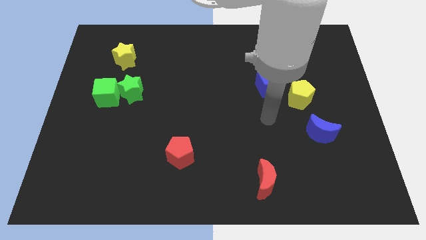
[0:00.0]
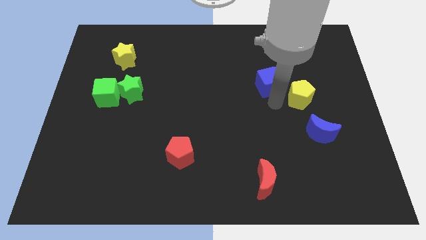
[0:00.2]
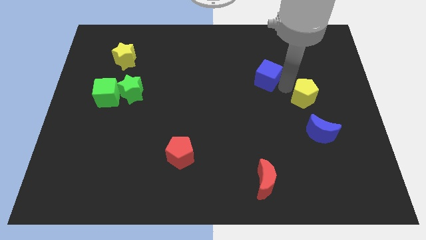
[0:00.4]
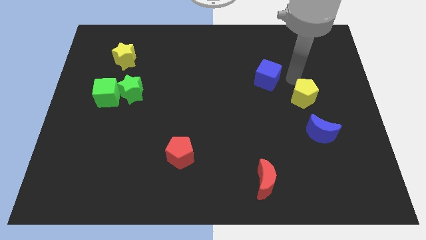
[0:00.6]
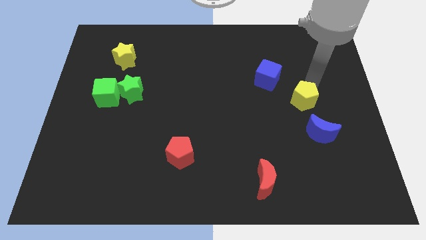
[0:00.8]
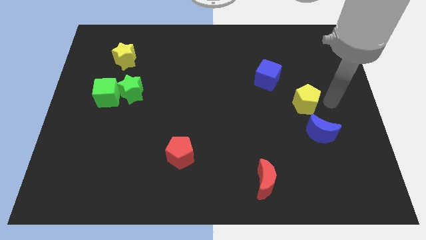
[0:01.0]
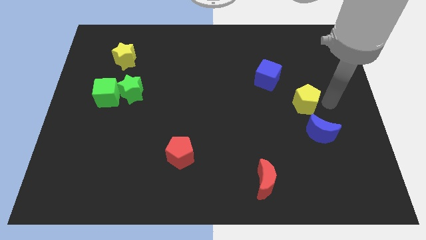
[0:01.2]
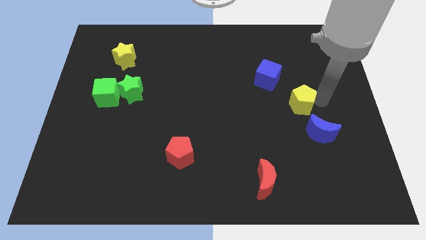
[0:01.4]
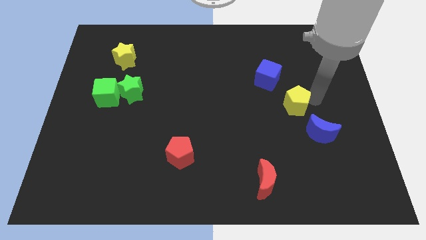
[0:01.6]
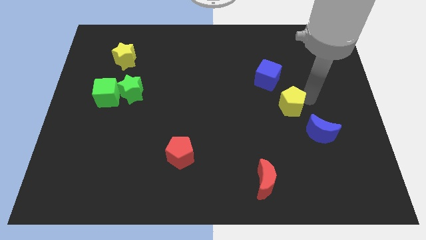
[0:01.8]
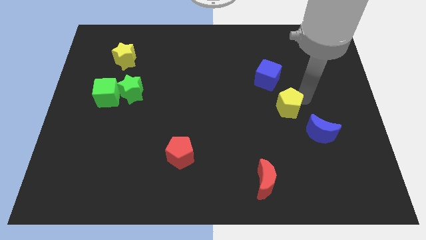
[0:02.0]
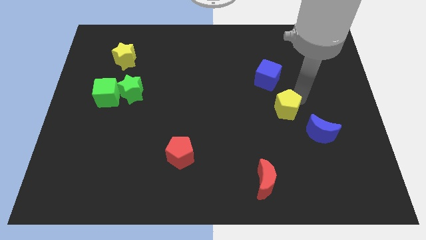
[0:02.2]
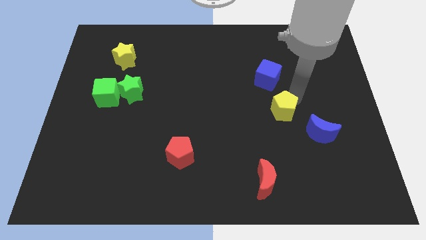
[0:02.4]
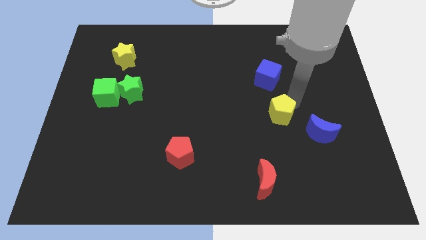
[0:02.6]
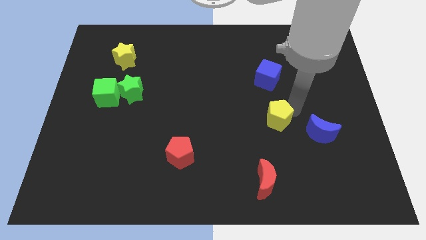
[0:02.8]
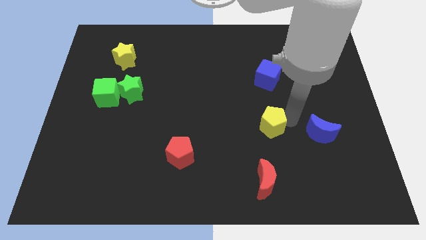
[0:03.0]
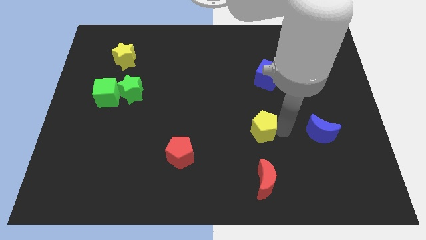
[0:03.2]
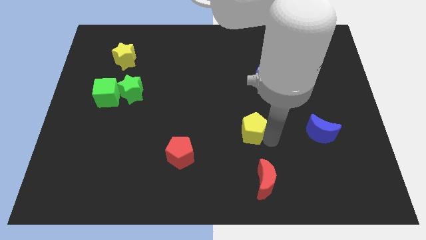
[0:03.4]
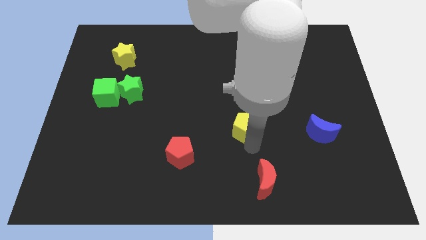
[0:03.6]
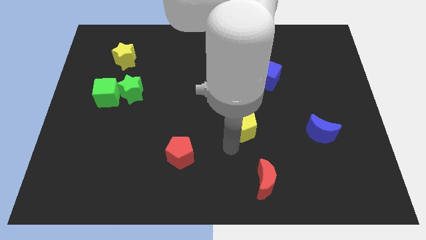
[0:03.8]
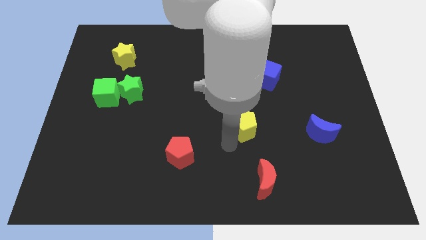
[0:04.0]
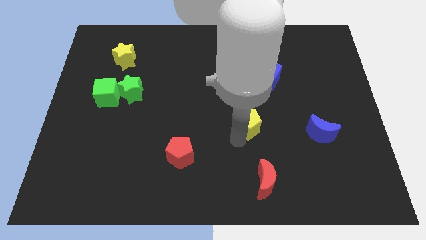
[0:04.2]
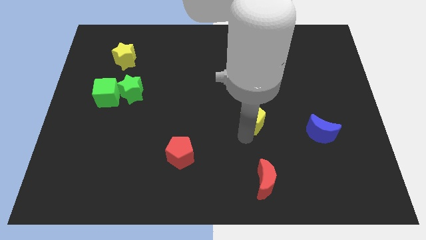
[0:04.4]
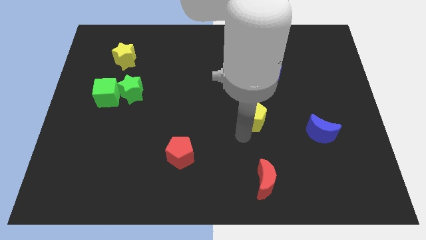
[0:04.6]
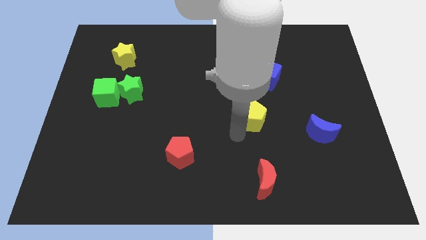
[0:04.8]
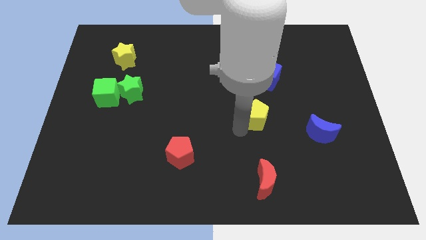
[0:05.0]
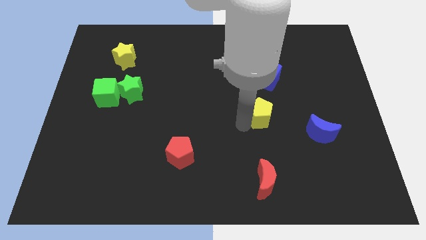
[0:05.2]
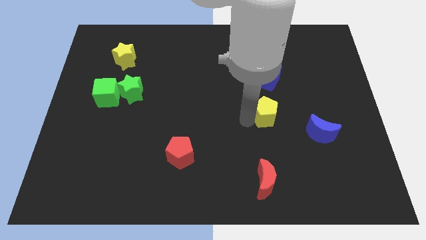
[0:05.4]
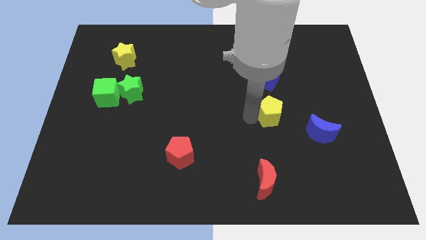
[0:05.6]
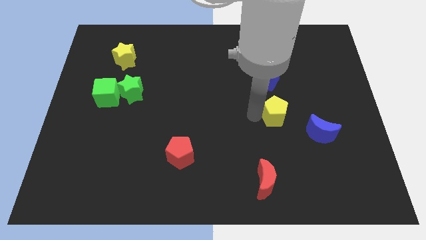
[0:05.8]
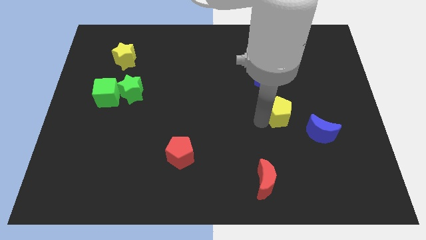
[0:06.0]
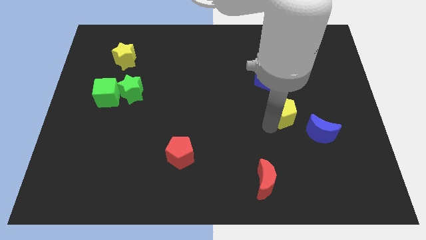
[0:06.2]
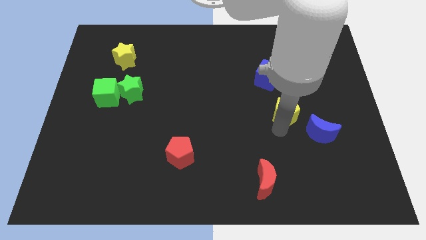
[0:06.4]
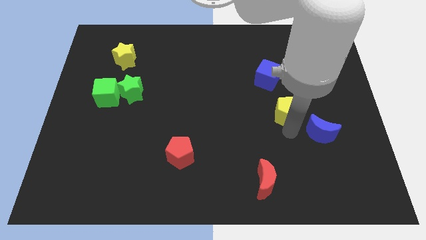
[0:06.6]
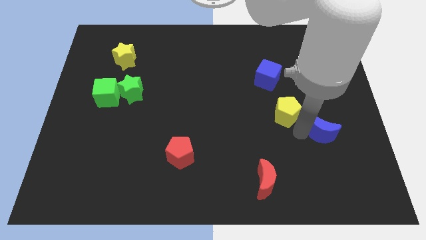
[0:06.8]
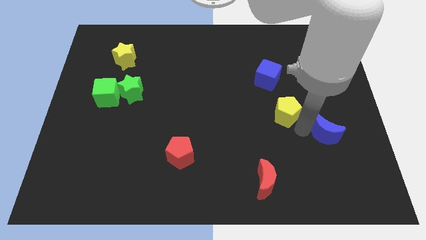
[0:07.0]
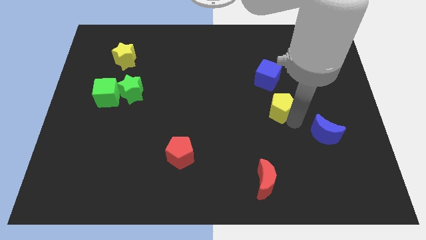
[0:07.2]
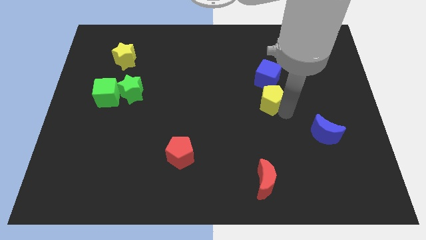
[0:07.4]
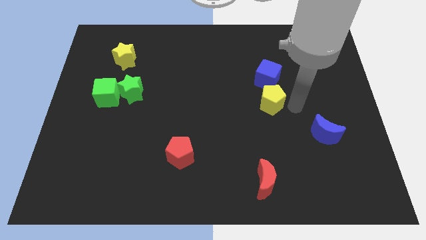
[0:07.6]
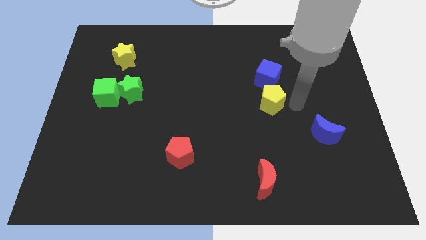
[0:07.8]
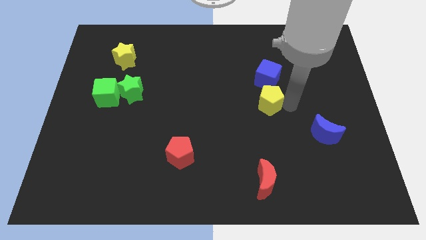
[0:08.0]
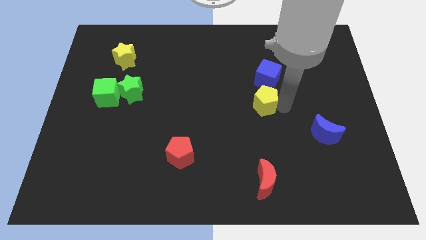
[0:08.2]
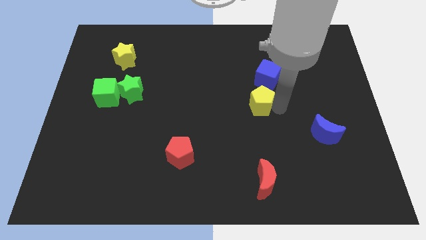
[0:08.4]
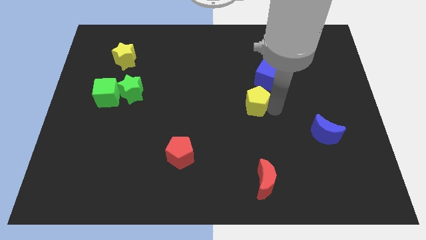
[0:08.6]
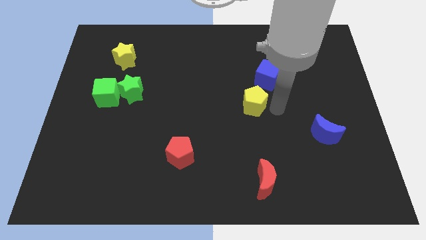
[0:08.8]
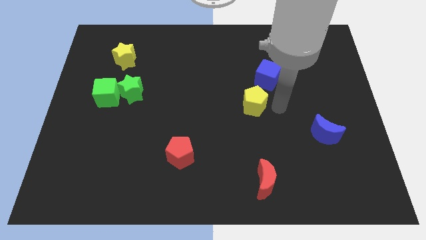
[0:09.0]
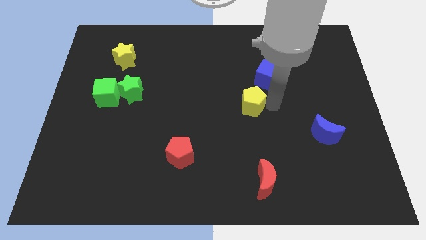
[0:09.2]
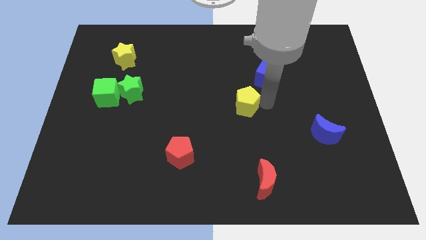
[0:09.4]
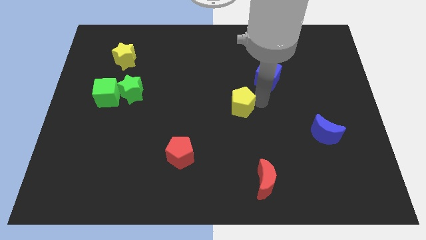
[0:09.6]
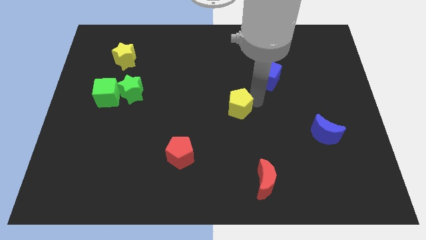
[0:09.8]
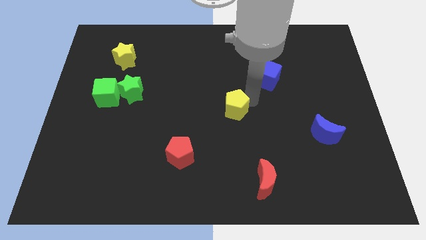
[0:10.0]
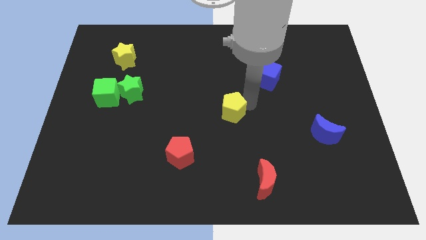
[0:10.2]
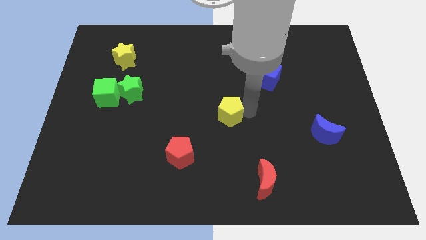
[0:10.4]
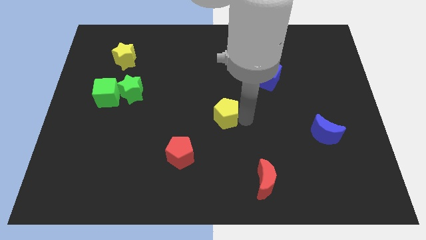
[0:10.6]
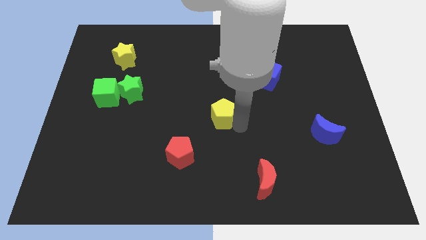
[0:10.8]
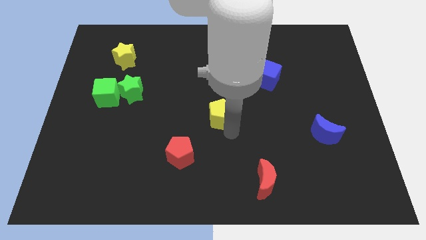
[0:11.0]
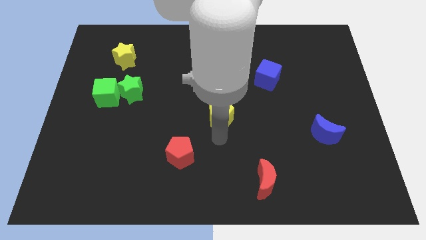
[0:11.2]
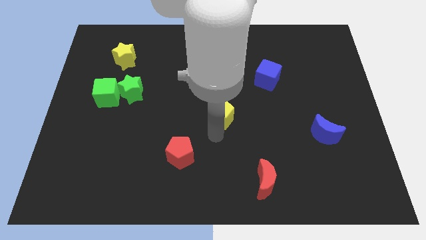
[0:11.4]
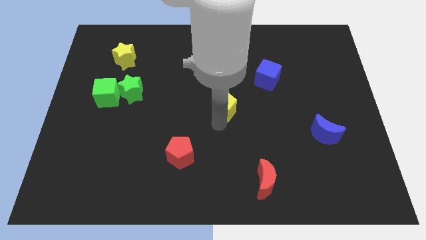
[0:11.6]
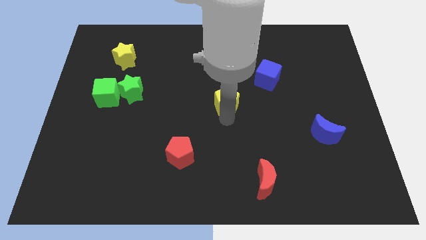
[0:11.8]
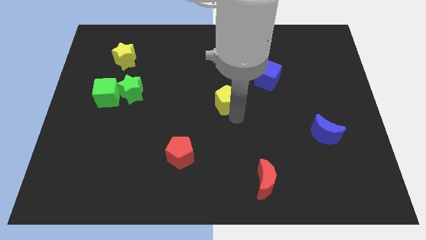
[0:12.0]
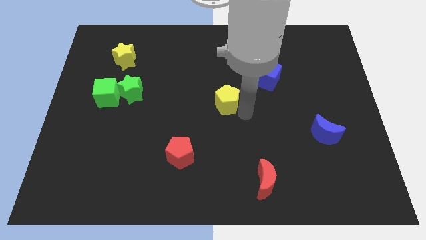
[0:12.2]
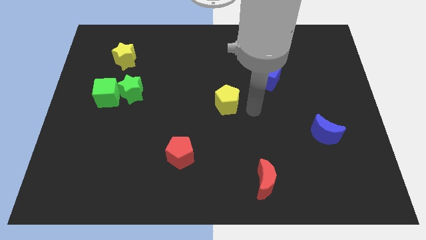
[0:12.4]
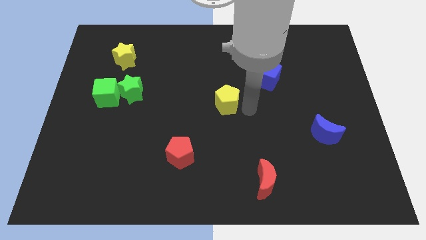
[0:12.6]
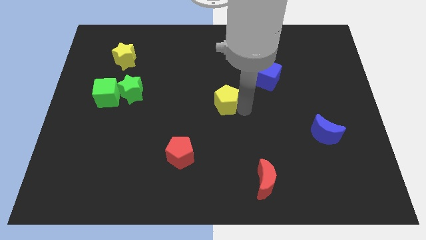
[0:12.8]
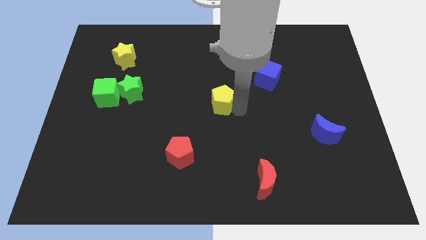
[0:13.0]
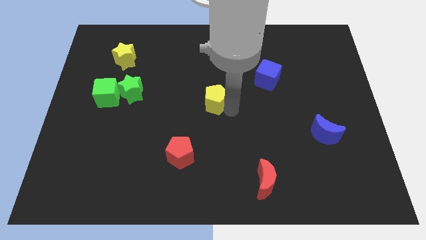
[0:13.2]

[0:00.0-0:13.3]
slide the yellow pentagon left

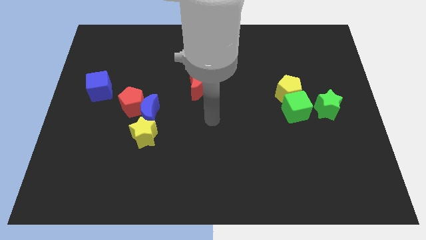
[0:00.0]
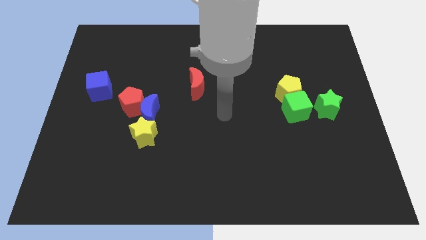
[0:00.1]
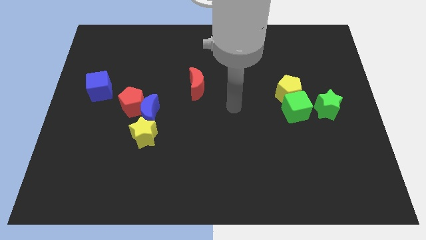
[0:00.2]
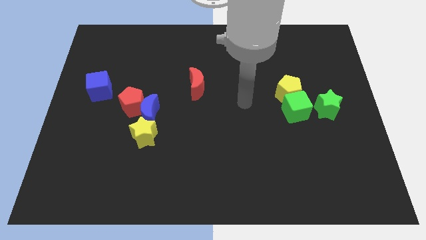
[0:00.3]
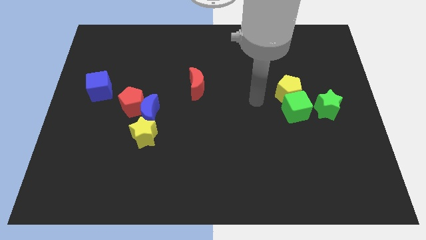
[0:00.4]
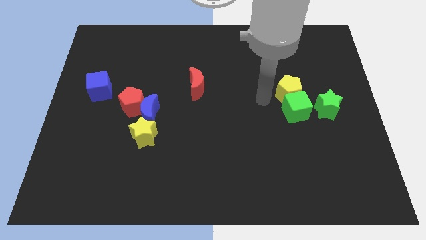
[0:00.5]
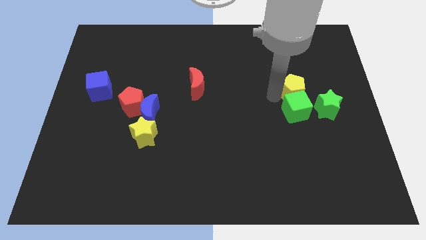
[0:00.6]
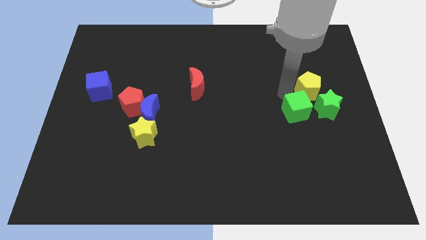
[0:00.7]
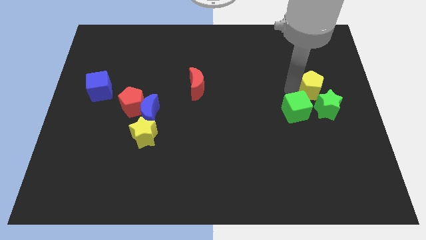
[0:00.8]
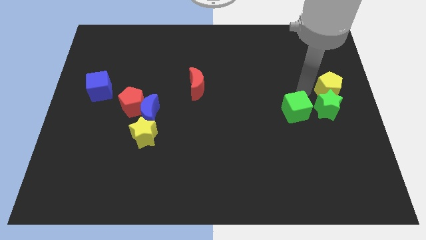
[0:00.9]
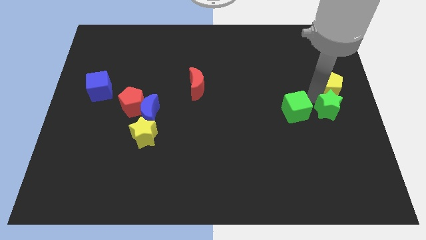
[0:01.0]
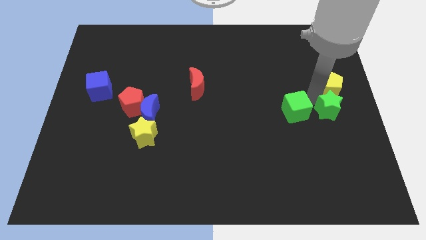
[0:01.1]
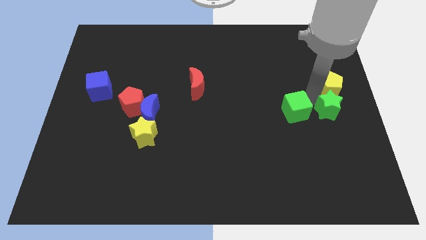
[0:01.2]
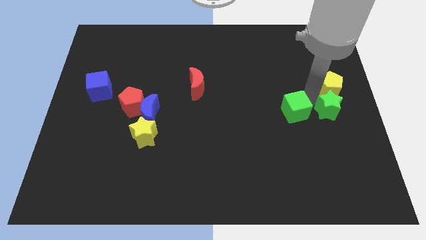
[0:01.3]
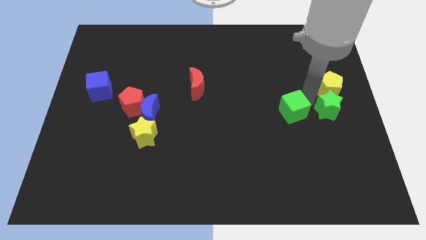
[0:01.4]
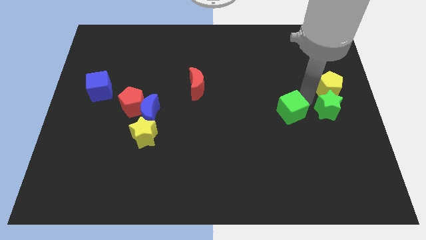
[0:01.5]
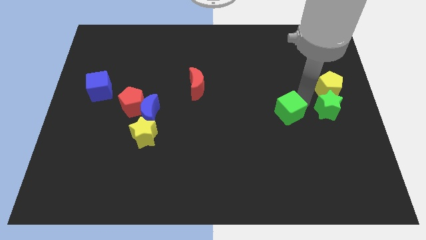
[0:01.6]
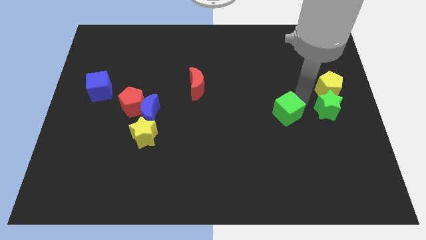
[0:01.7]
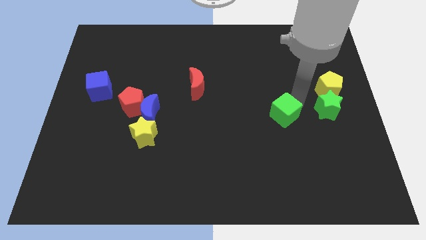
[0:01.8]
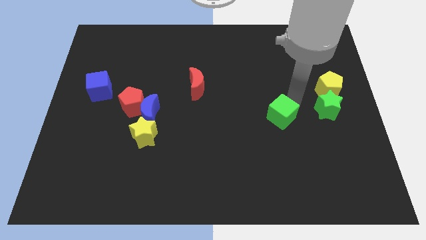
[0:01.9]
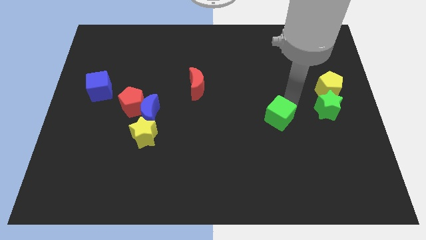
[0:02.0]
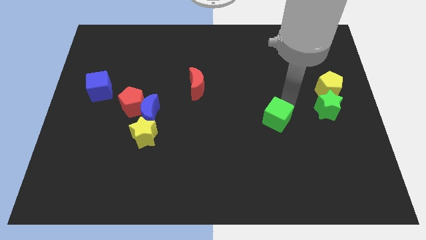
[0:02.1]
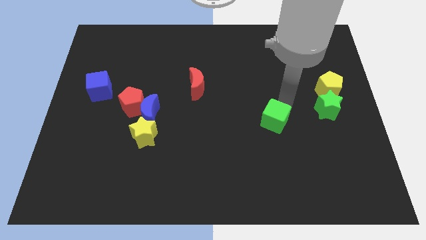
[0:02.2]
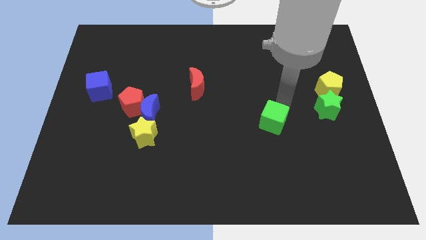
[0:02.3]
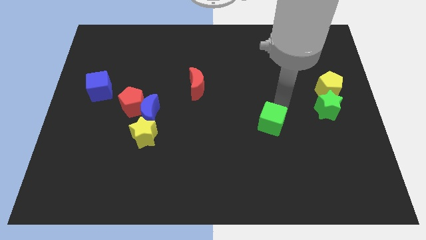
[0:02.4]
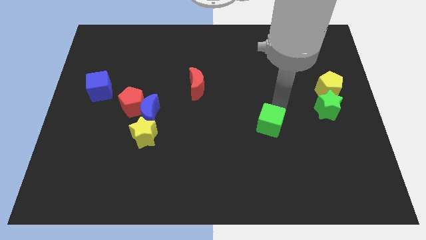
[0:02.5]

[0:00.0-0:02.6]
move the green cube somewhat downwards and to the left diagonally
